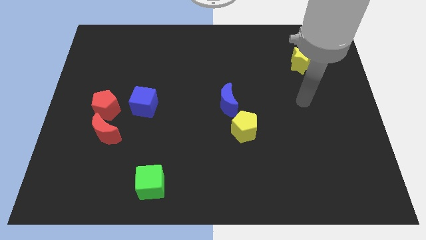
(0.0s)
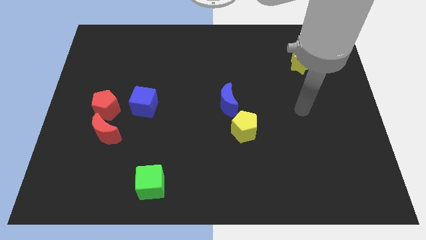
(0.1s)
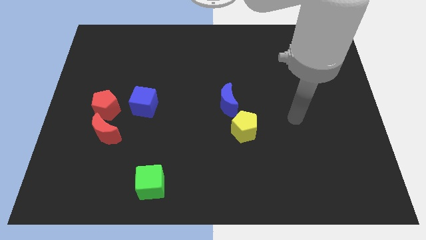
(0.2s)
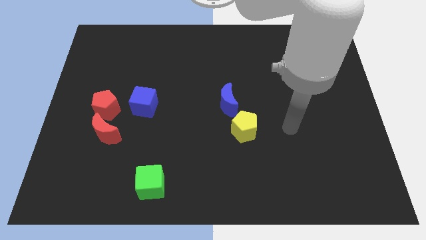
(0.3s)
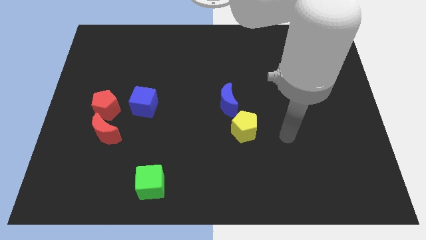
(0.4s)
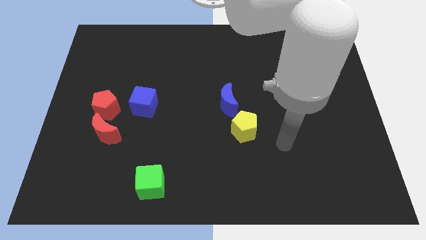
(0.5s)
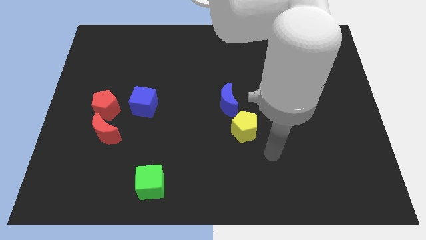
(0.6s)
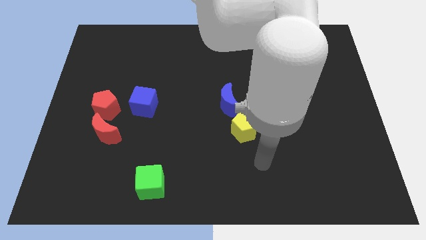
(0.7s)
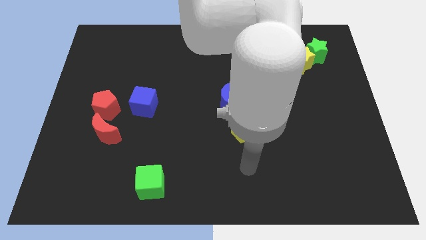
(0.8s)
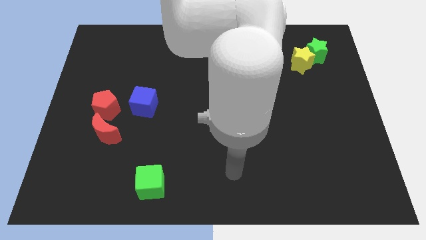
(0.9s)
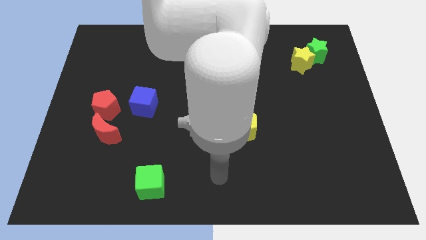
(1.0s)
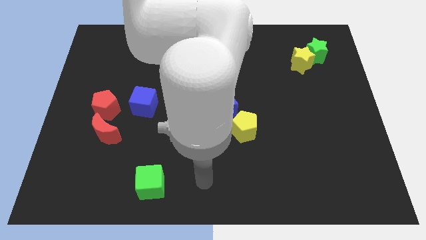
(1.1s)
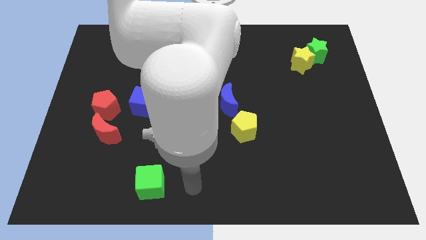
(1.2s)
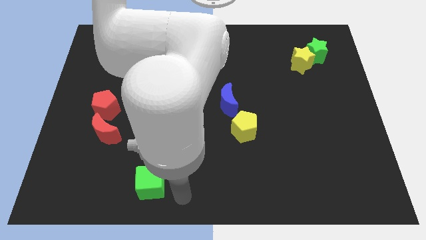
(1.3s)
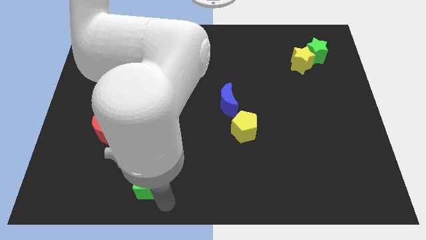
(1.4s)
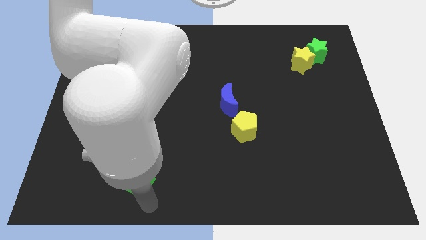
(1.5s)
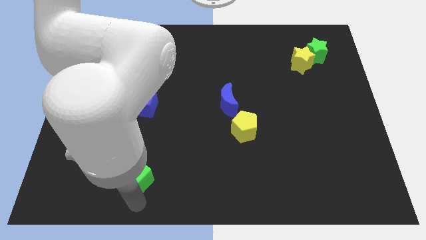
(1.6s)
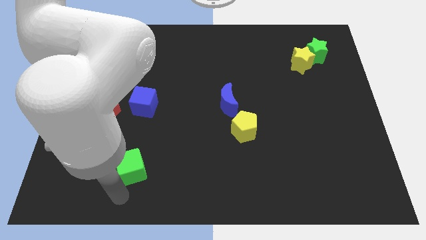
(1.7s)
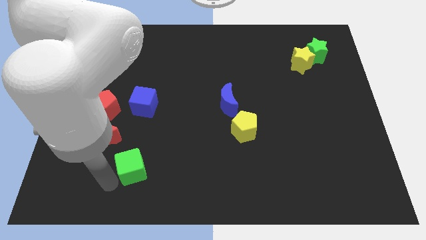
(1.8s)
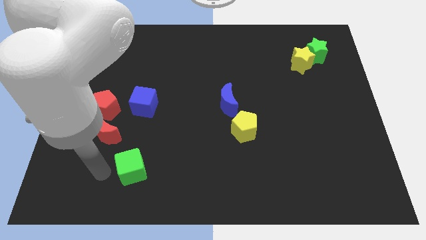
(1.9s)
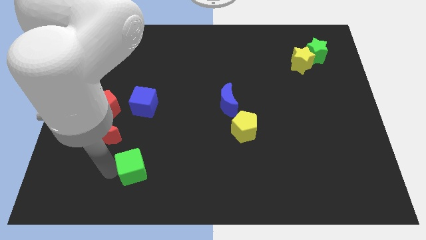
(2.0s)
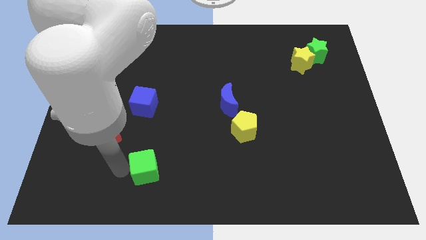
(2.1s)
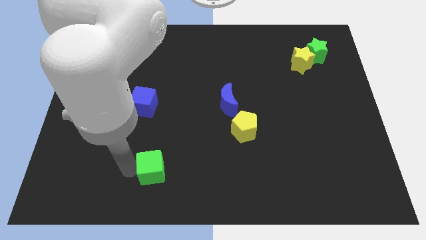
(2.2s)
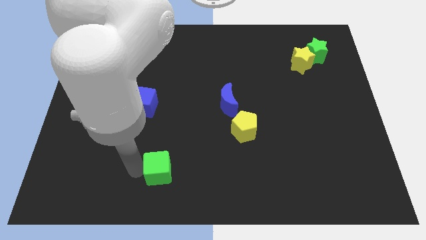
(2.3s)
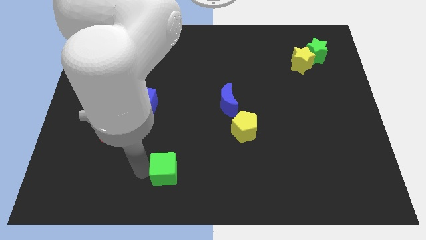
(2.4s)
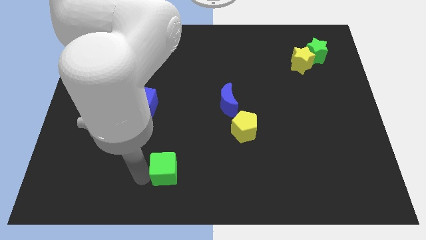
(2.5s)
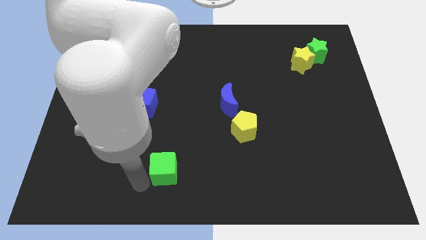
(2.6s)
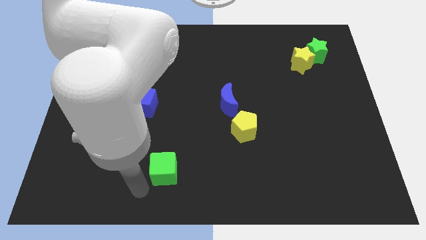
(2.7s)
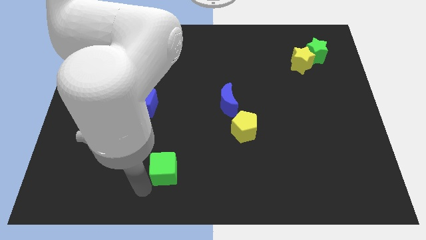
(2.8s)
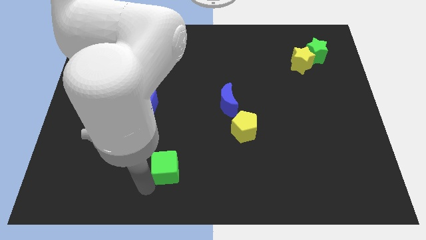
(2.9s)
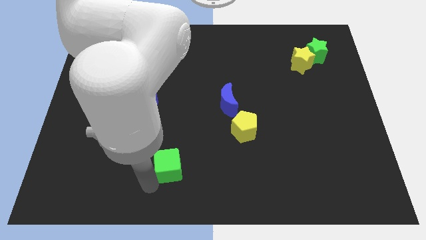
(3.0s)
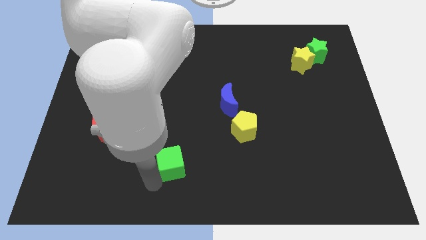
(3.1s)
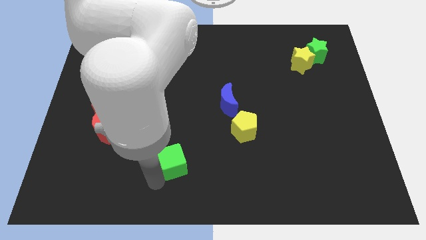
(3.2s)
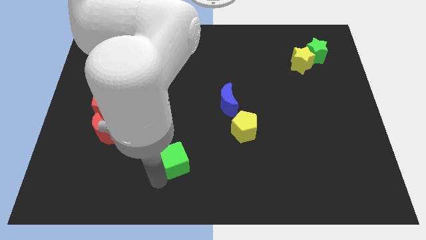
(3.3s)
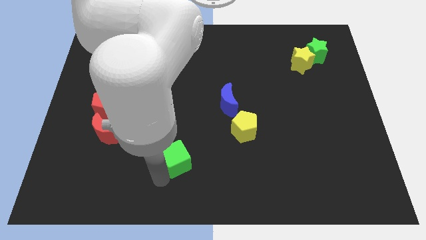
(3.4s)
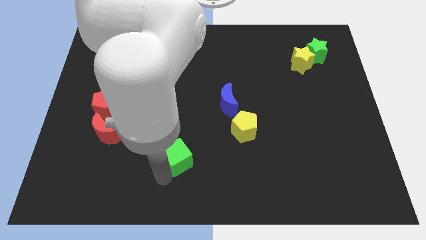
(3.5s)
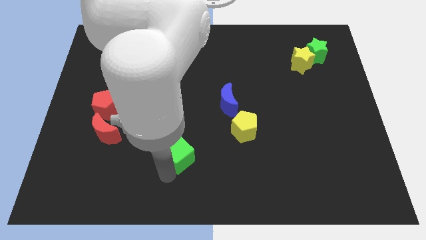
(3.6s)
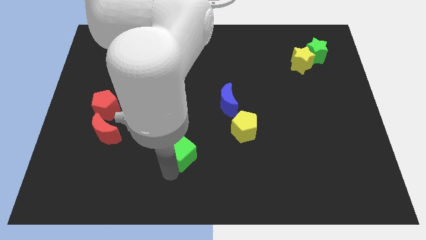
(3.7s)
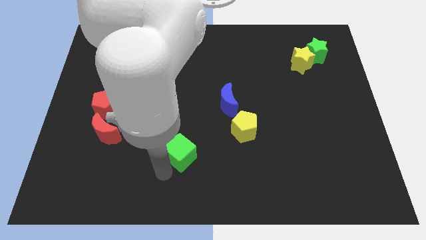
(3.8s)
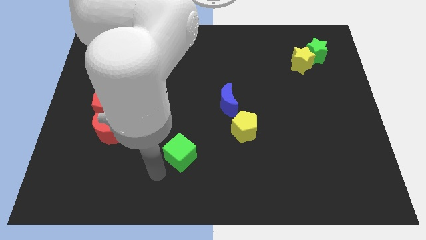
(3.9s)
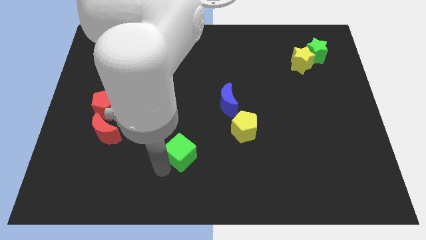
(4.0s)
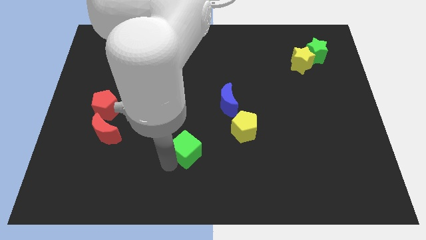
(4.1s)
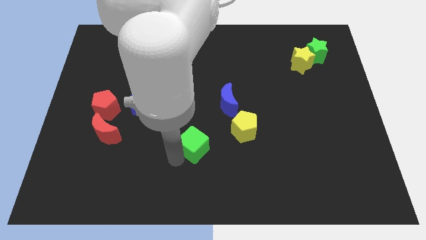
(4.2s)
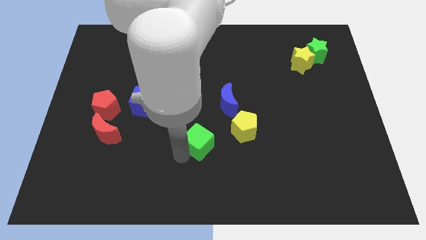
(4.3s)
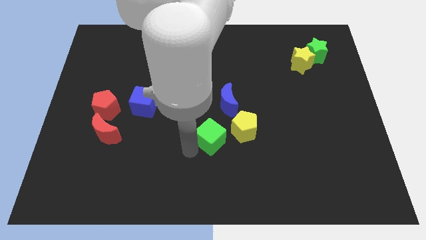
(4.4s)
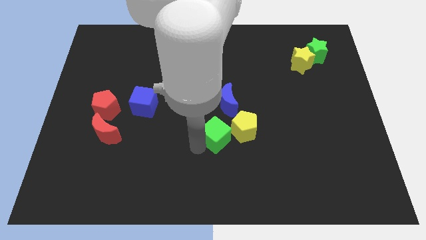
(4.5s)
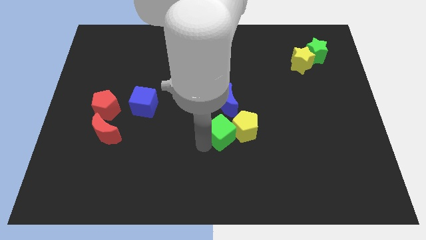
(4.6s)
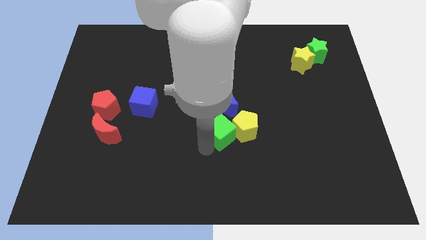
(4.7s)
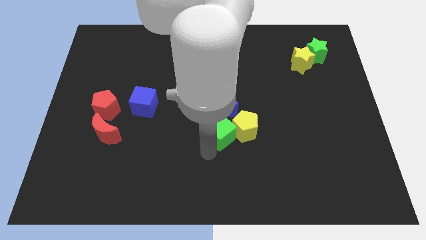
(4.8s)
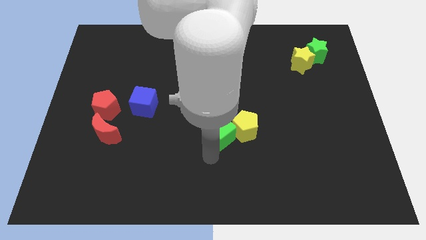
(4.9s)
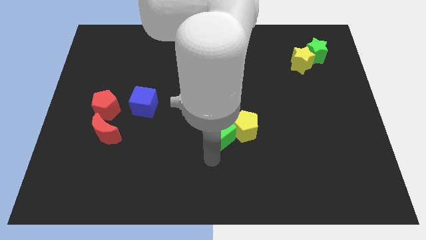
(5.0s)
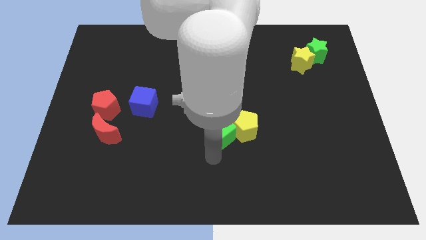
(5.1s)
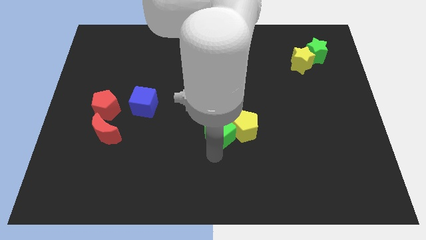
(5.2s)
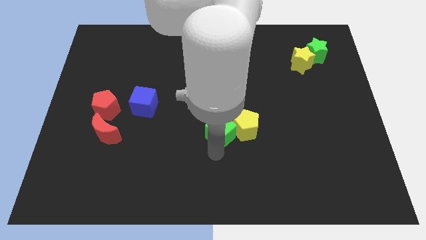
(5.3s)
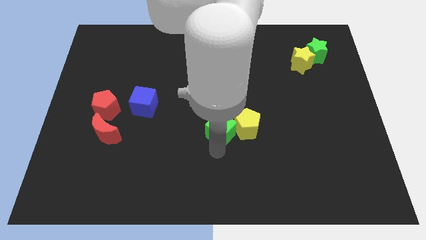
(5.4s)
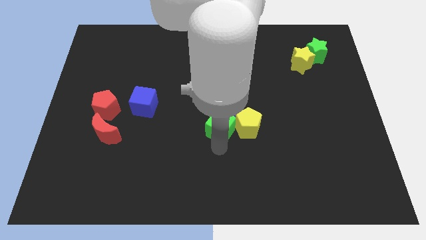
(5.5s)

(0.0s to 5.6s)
slide the green cube diagonally up and to the right

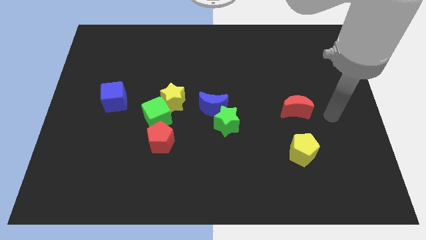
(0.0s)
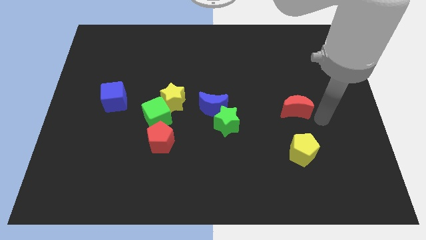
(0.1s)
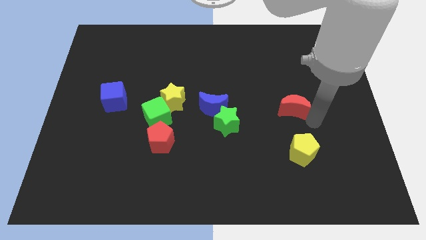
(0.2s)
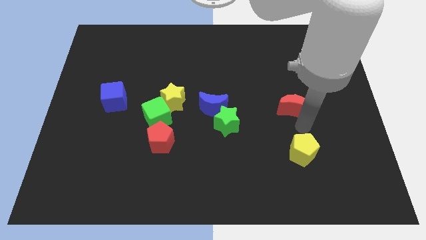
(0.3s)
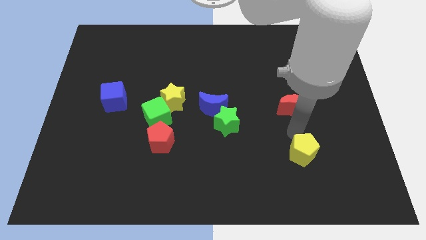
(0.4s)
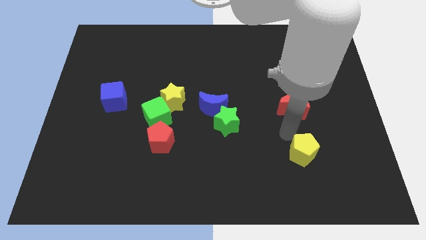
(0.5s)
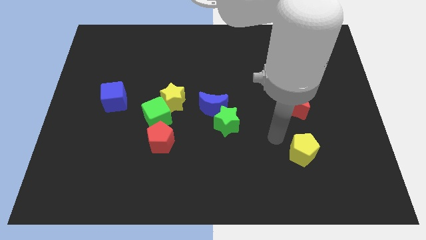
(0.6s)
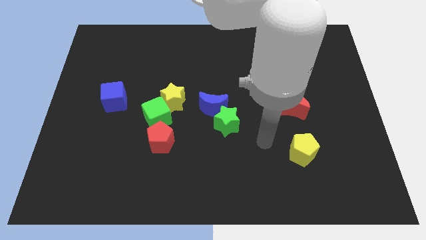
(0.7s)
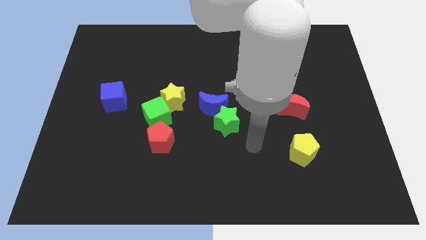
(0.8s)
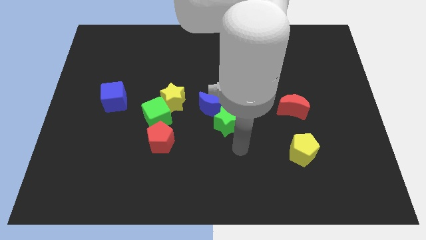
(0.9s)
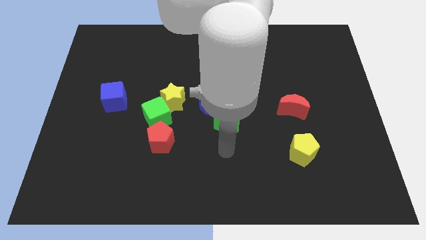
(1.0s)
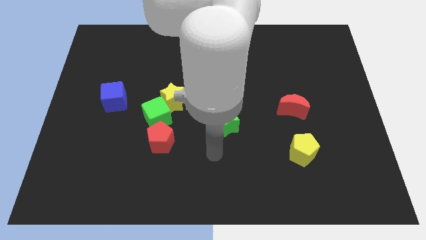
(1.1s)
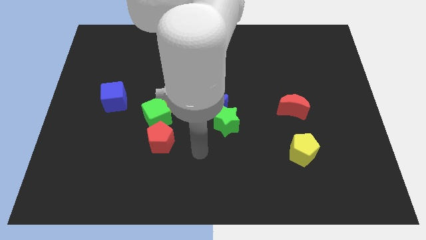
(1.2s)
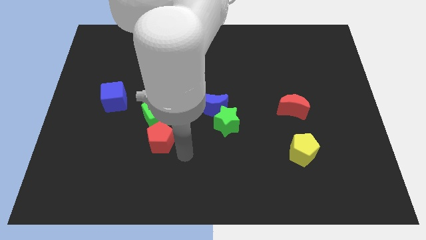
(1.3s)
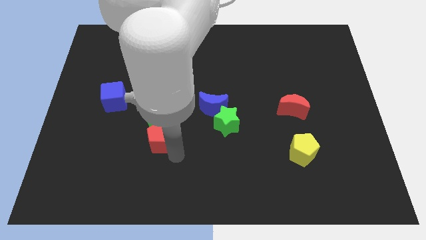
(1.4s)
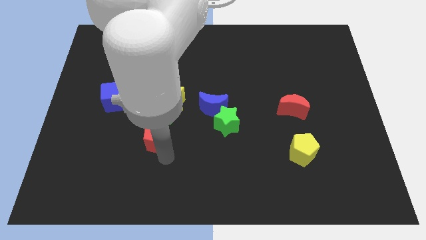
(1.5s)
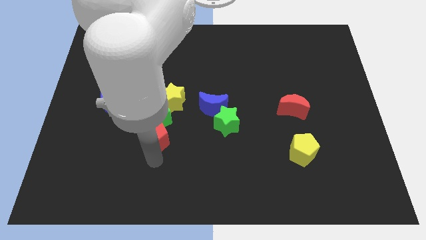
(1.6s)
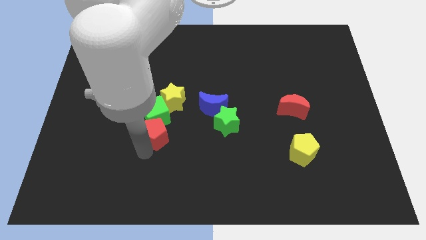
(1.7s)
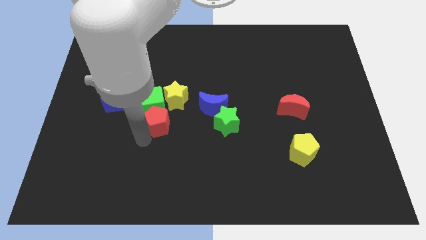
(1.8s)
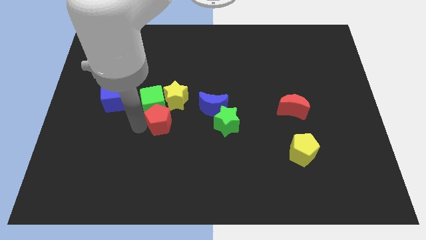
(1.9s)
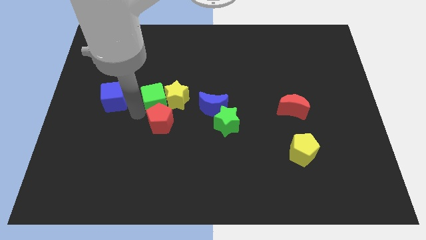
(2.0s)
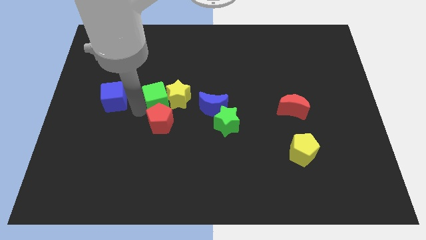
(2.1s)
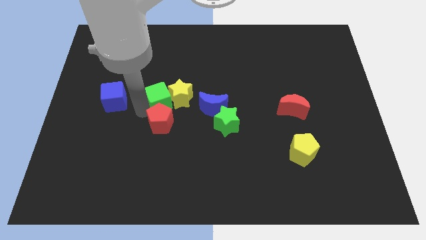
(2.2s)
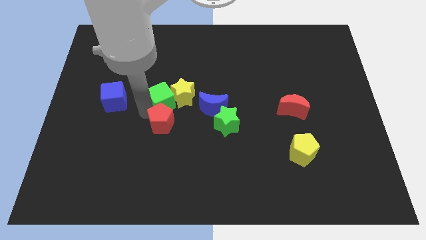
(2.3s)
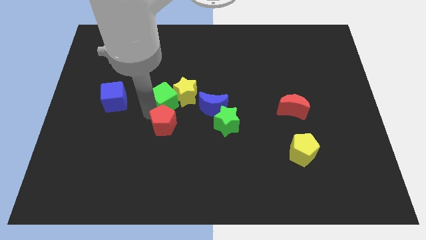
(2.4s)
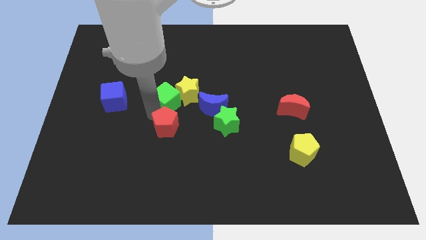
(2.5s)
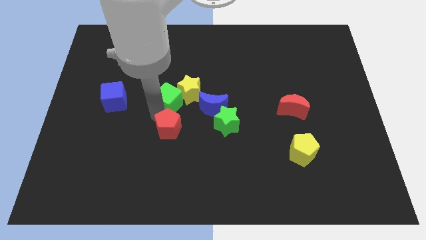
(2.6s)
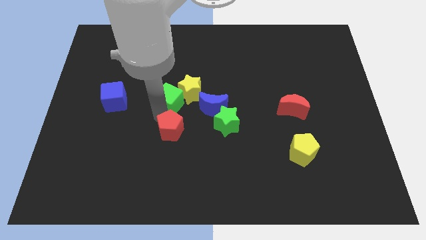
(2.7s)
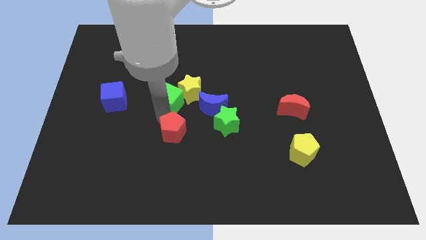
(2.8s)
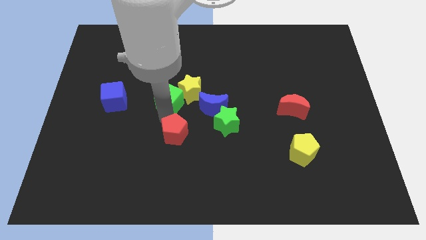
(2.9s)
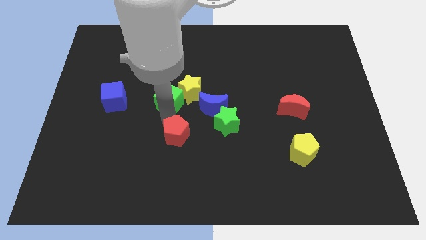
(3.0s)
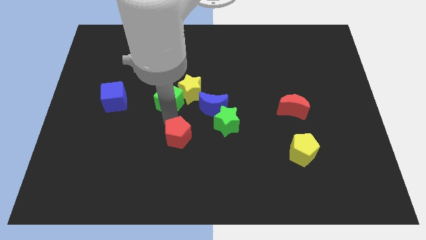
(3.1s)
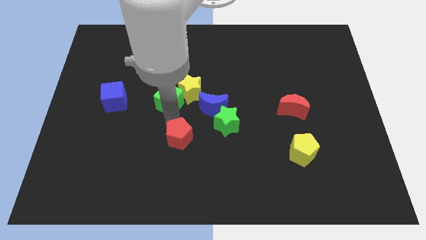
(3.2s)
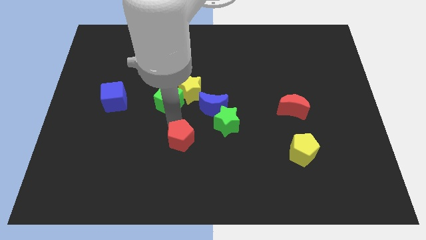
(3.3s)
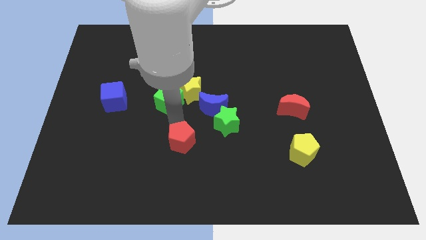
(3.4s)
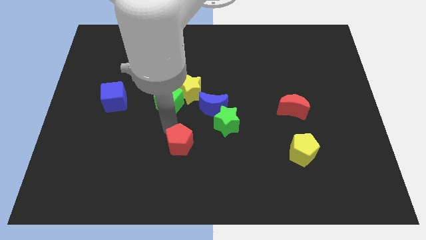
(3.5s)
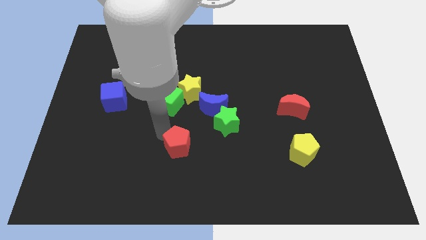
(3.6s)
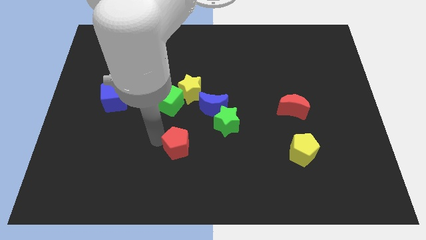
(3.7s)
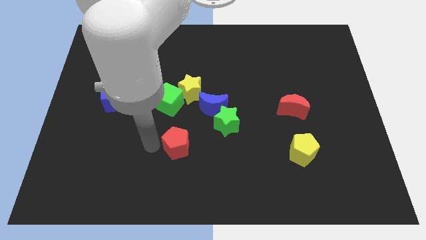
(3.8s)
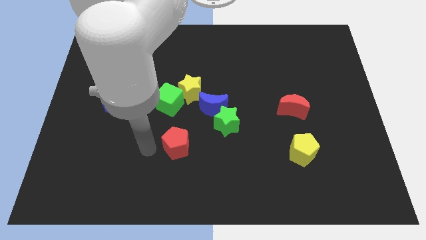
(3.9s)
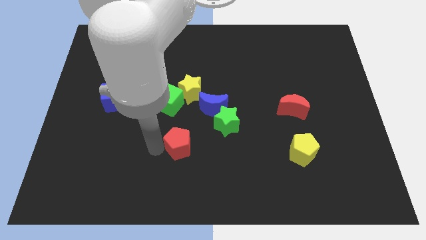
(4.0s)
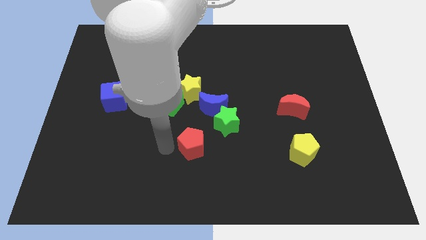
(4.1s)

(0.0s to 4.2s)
move the red pentagon a bit to the right
